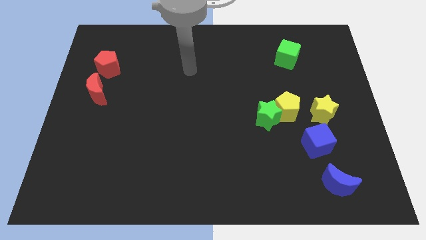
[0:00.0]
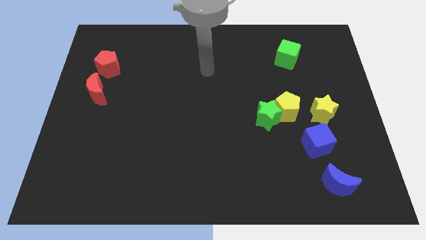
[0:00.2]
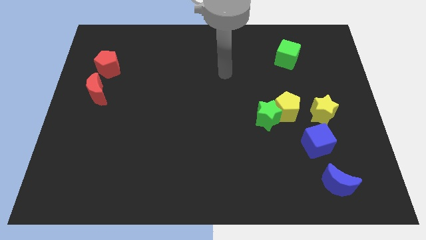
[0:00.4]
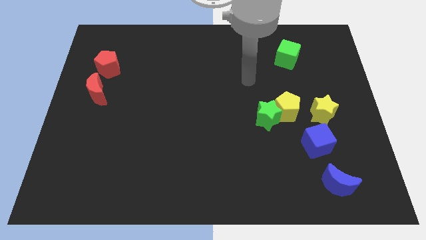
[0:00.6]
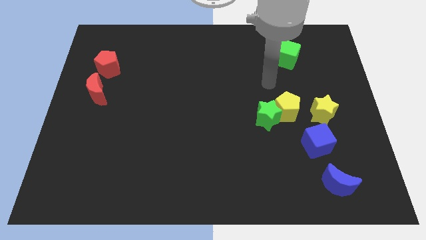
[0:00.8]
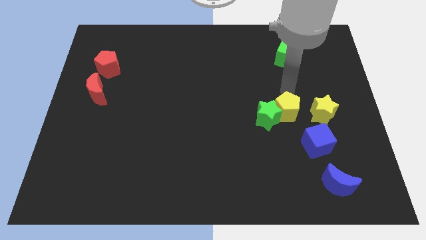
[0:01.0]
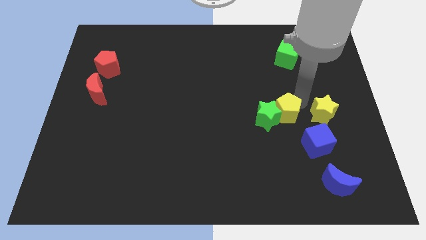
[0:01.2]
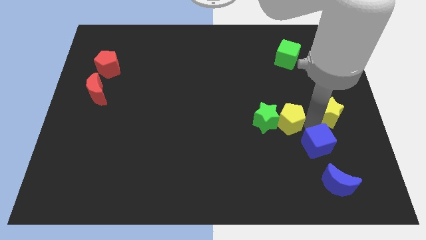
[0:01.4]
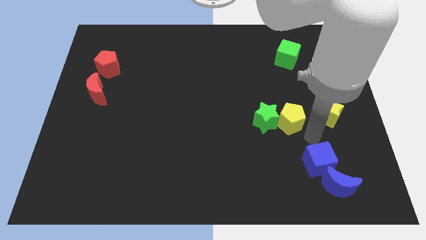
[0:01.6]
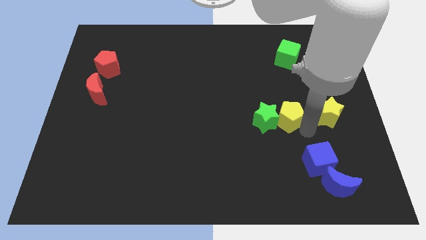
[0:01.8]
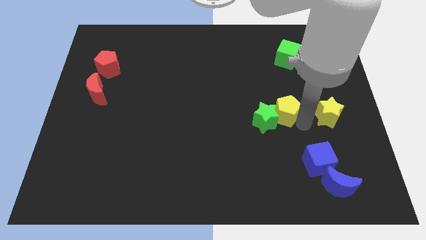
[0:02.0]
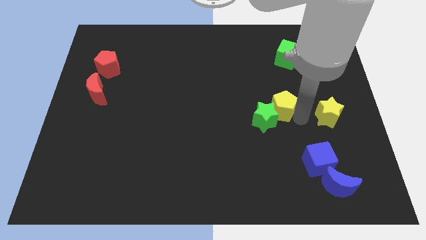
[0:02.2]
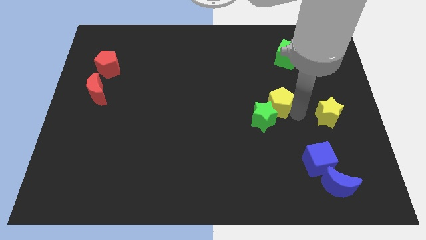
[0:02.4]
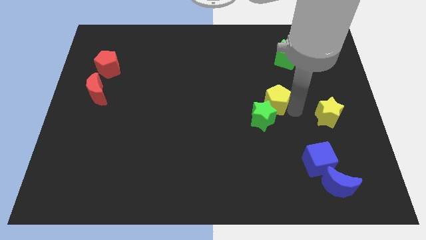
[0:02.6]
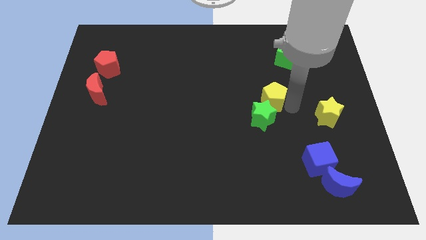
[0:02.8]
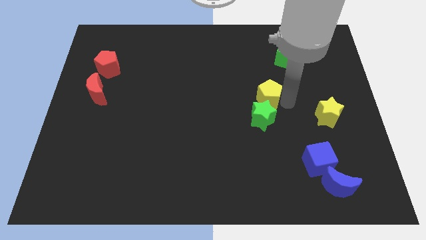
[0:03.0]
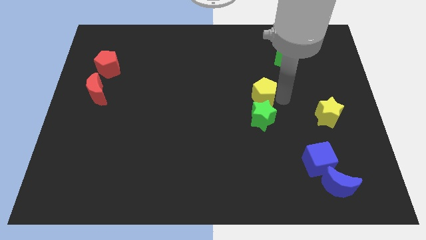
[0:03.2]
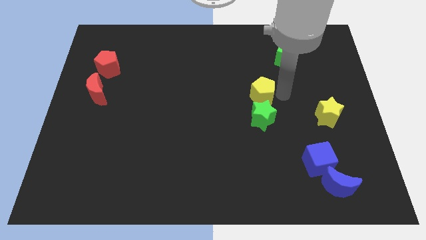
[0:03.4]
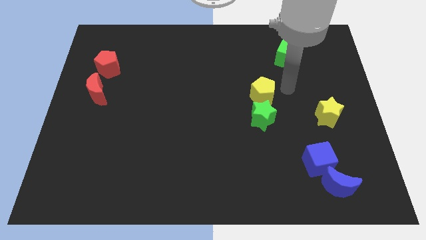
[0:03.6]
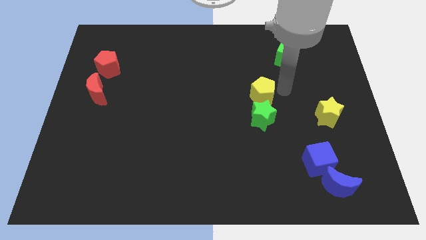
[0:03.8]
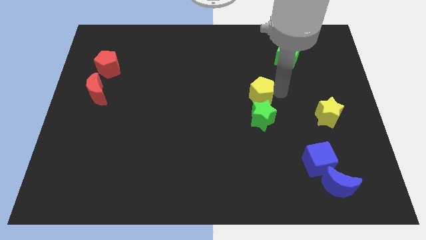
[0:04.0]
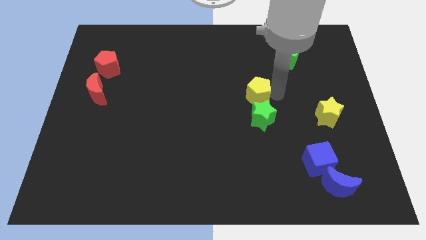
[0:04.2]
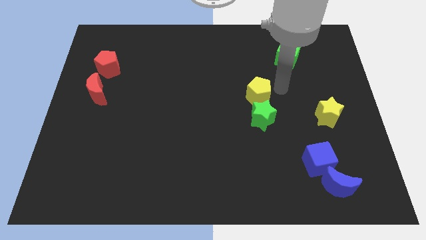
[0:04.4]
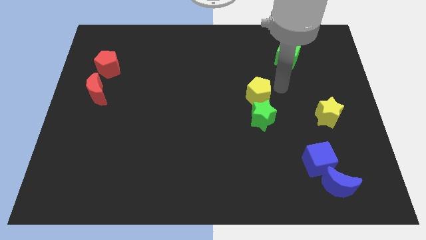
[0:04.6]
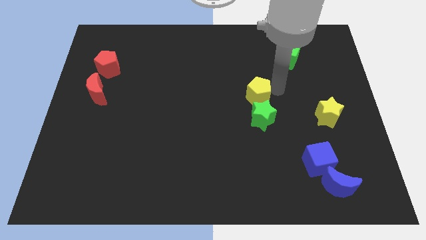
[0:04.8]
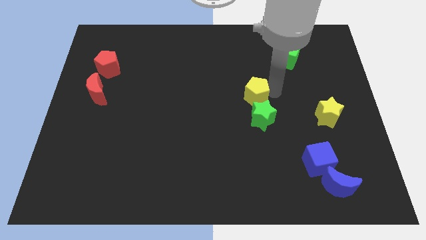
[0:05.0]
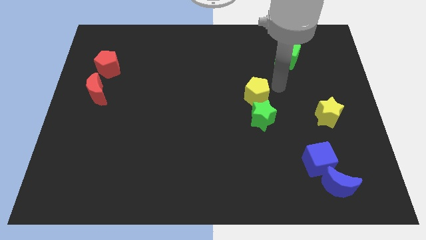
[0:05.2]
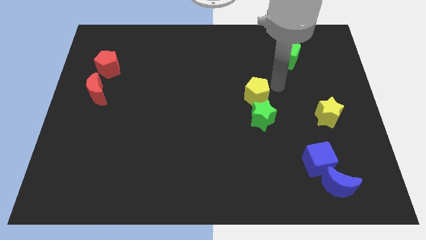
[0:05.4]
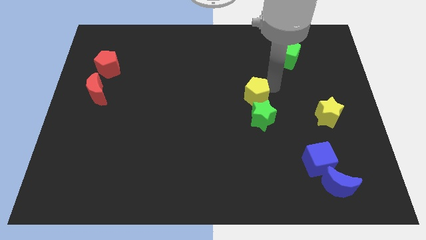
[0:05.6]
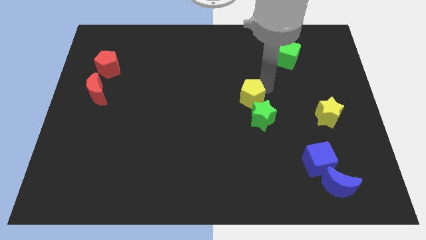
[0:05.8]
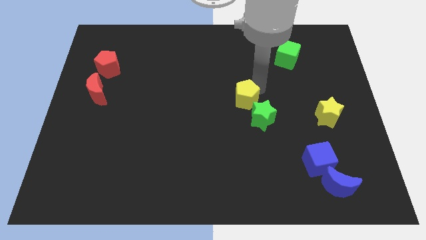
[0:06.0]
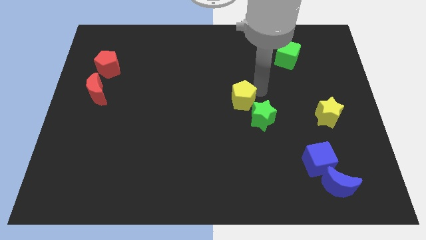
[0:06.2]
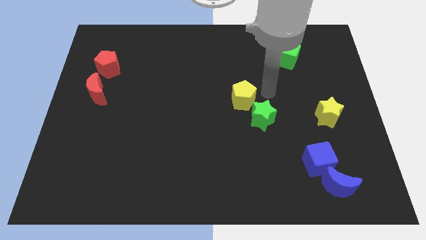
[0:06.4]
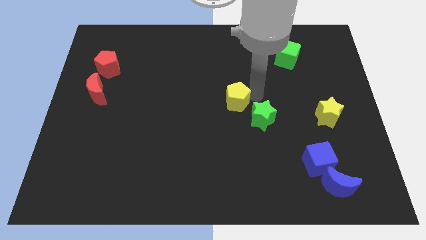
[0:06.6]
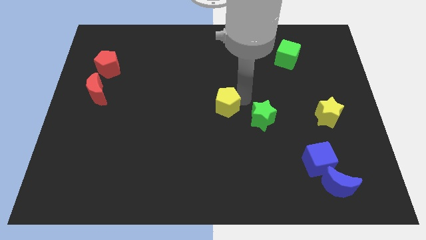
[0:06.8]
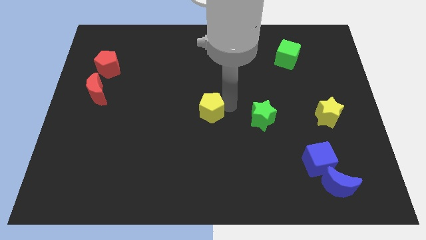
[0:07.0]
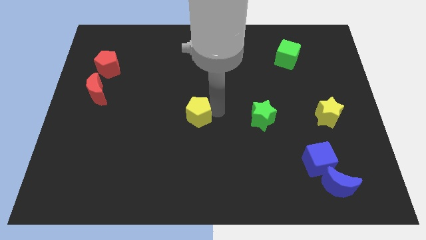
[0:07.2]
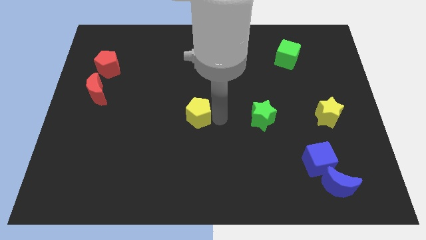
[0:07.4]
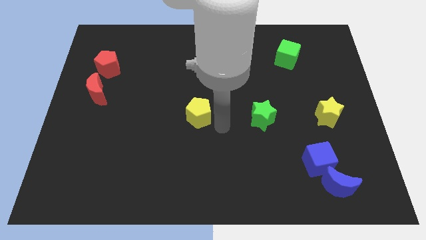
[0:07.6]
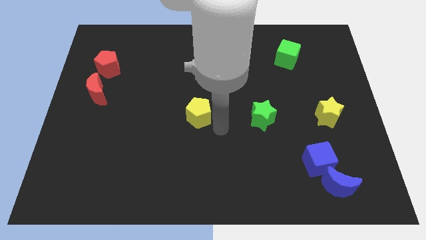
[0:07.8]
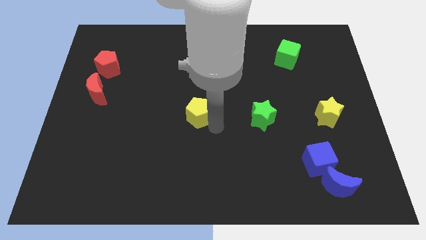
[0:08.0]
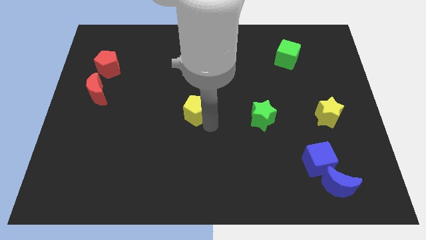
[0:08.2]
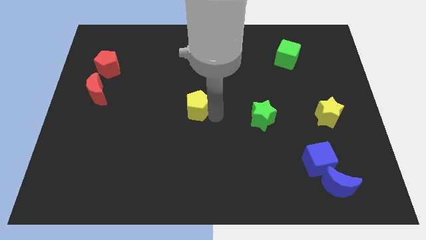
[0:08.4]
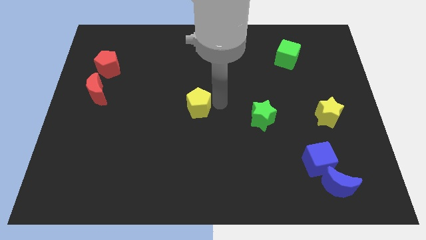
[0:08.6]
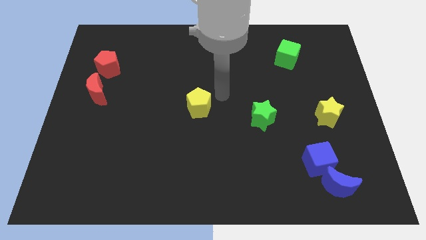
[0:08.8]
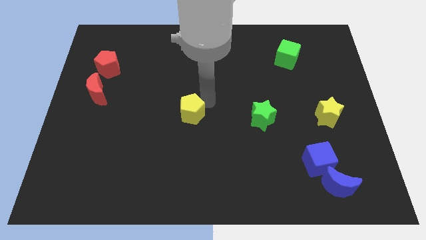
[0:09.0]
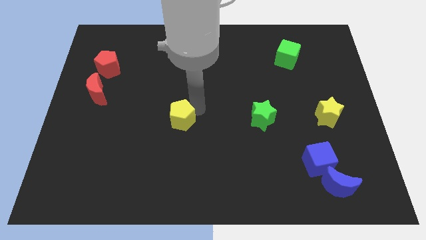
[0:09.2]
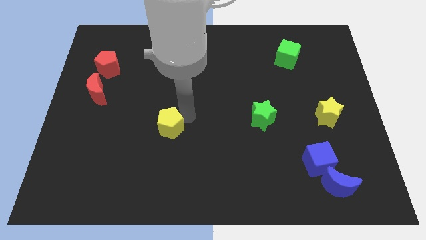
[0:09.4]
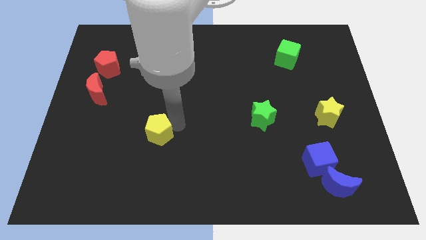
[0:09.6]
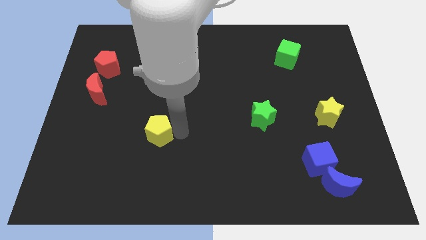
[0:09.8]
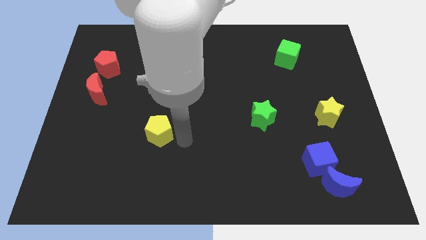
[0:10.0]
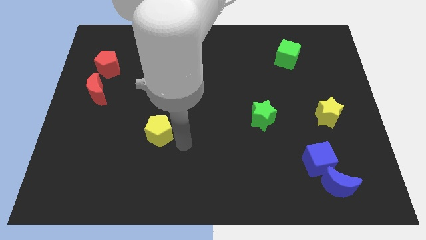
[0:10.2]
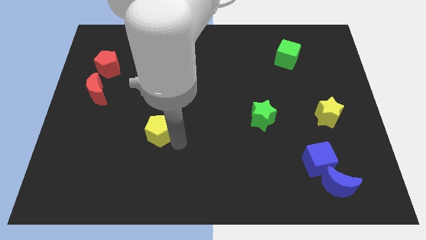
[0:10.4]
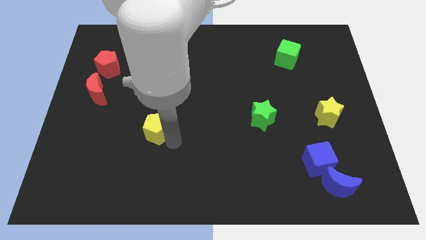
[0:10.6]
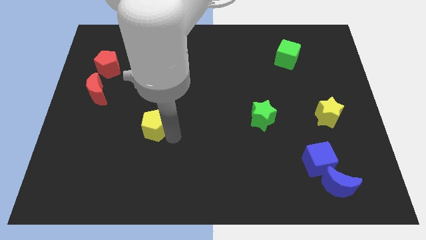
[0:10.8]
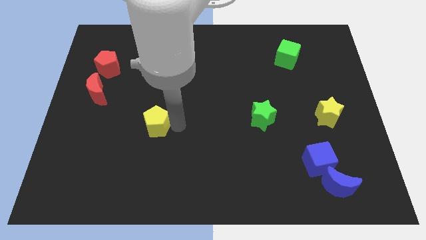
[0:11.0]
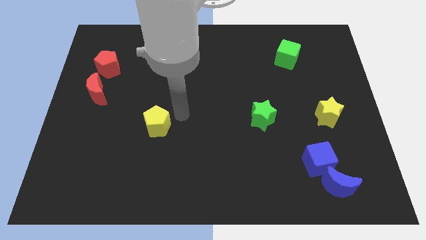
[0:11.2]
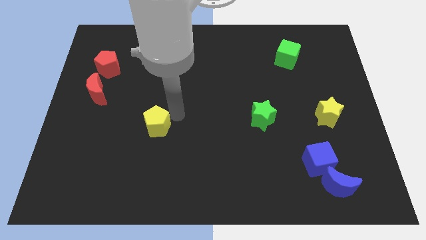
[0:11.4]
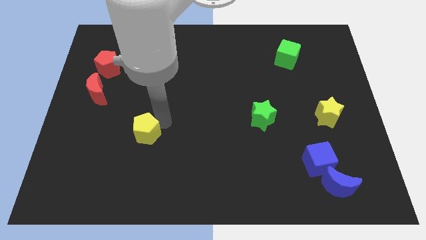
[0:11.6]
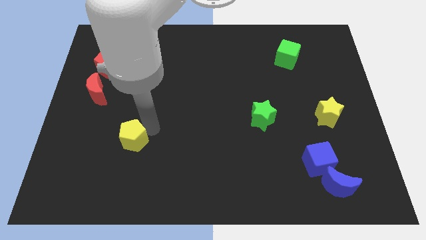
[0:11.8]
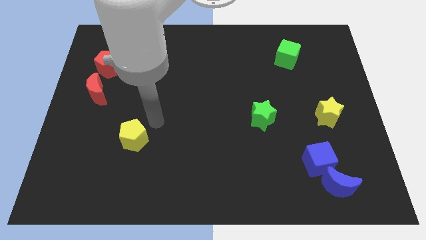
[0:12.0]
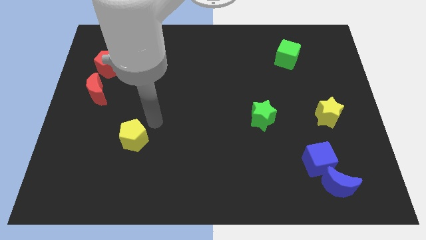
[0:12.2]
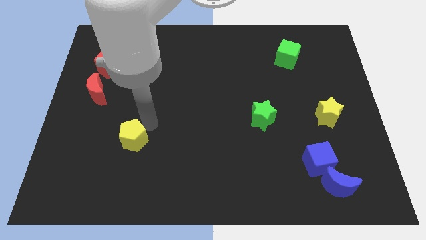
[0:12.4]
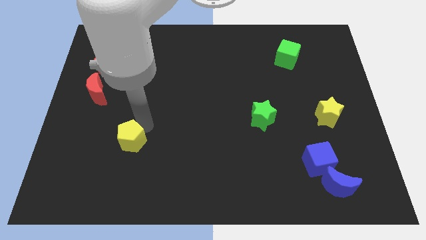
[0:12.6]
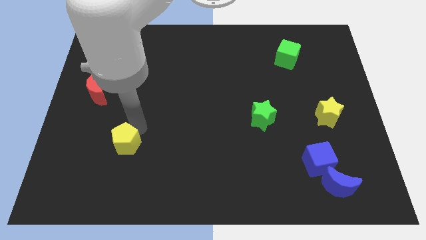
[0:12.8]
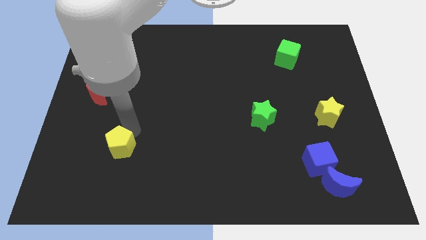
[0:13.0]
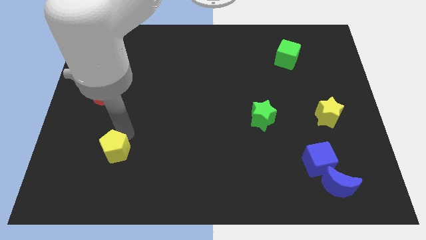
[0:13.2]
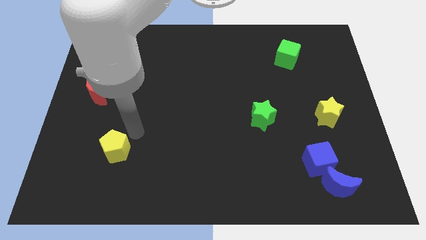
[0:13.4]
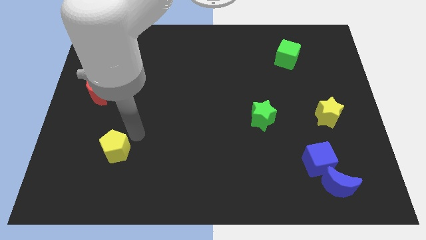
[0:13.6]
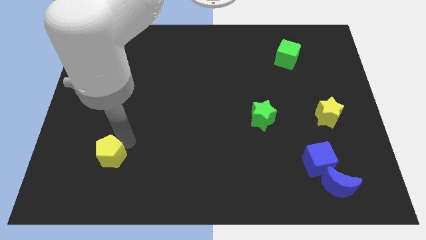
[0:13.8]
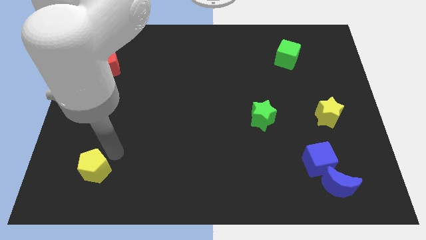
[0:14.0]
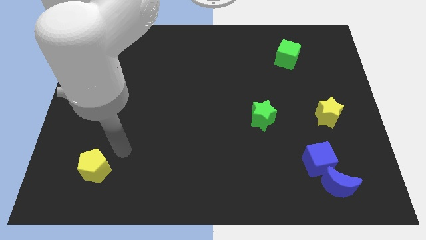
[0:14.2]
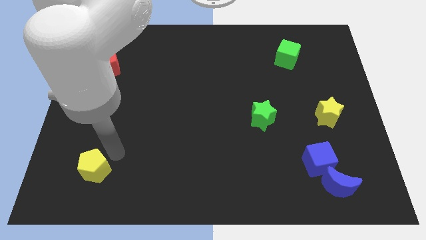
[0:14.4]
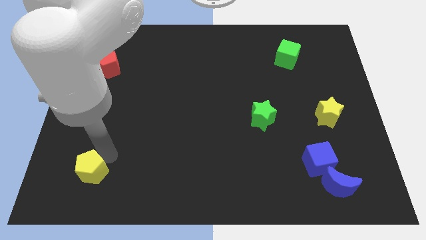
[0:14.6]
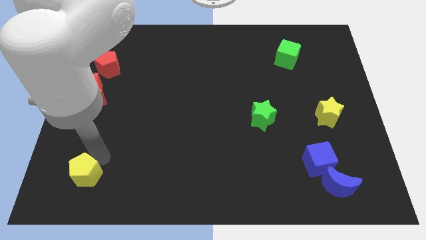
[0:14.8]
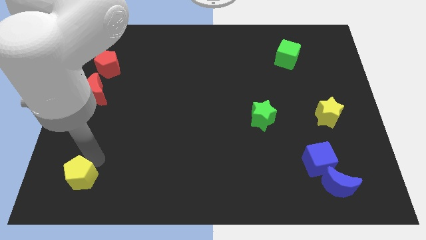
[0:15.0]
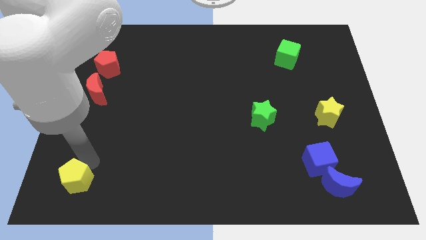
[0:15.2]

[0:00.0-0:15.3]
push the yellow pentagon to the bottom left corner
